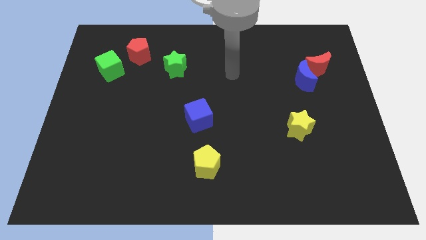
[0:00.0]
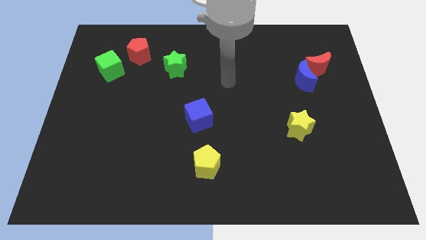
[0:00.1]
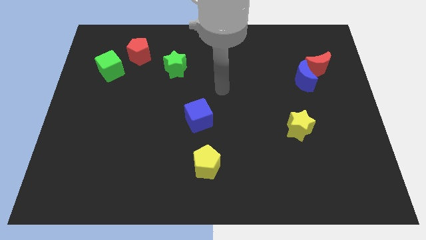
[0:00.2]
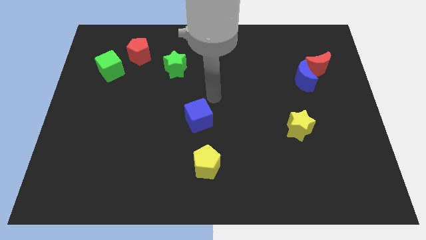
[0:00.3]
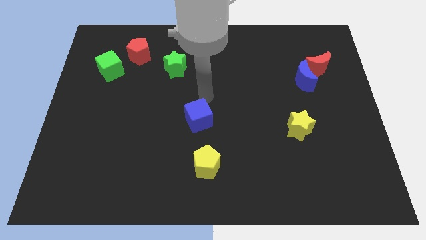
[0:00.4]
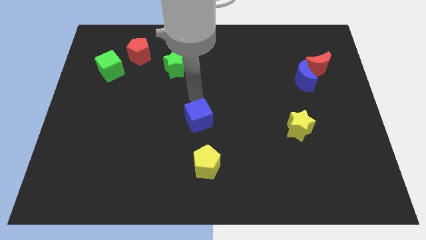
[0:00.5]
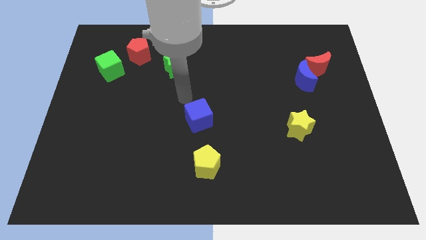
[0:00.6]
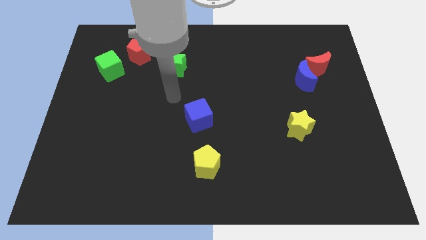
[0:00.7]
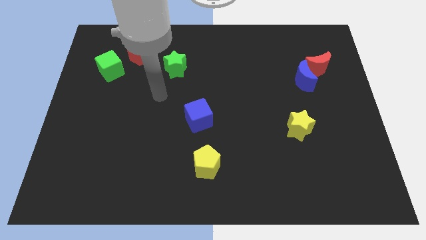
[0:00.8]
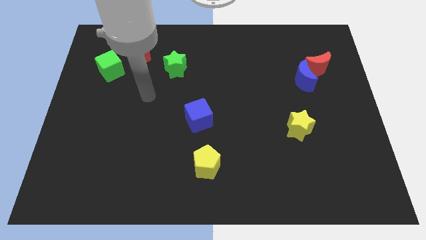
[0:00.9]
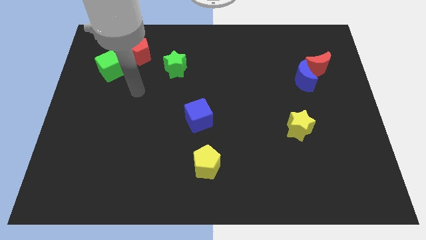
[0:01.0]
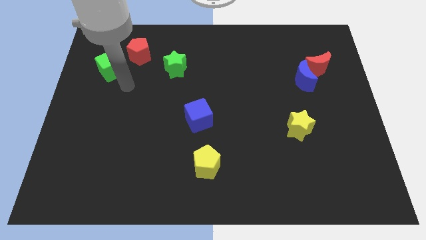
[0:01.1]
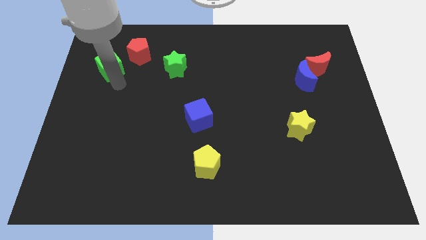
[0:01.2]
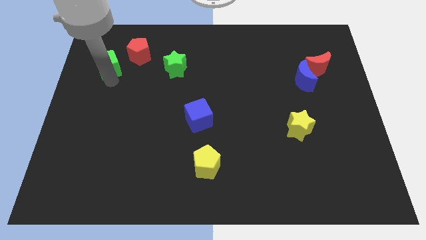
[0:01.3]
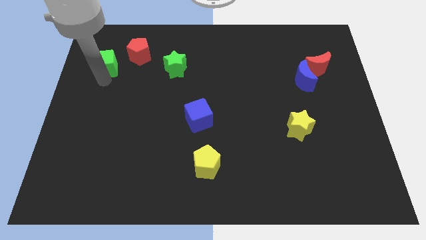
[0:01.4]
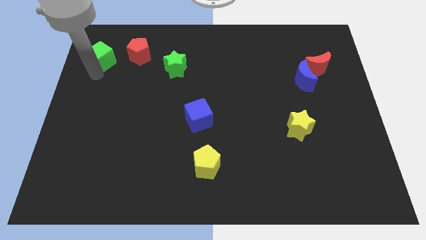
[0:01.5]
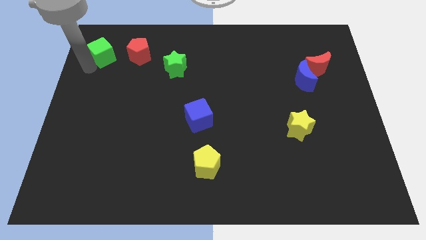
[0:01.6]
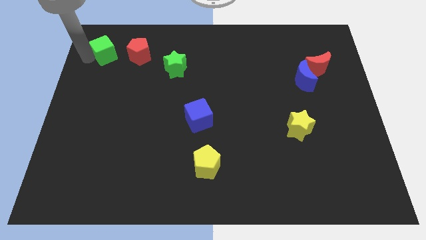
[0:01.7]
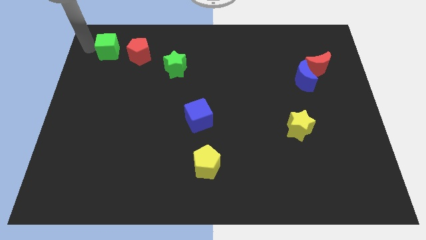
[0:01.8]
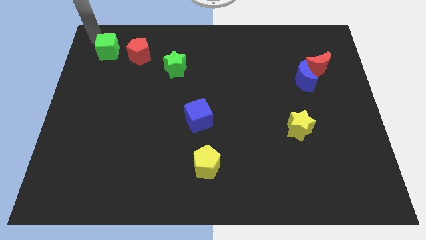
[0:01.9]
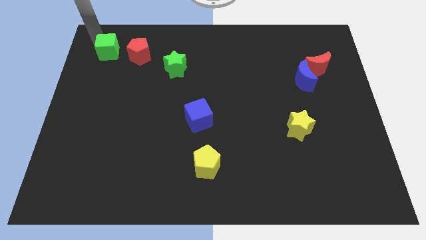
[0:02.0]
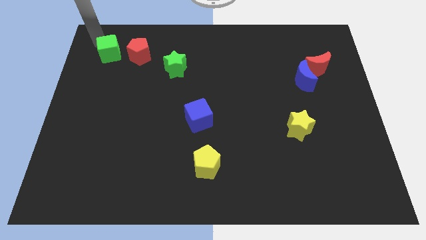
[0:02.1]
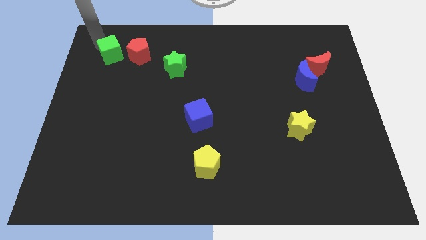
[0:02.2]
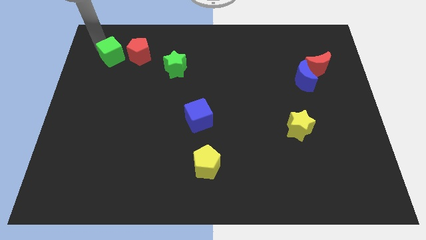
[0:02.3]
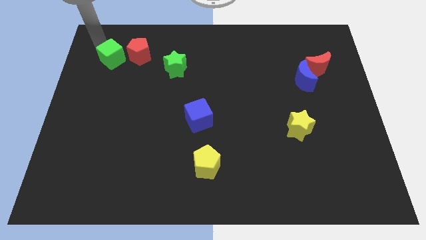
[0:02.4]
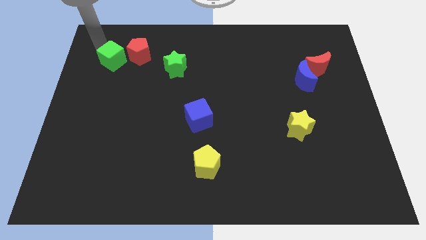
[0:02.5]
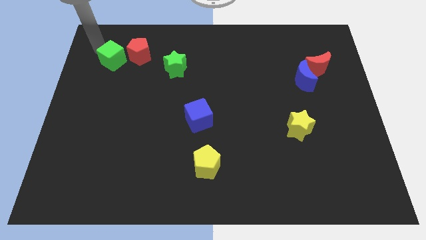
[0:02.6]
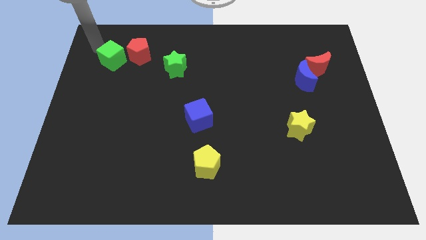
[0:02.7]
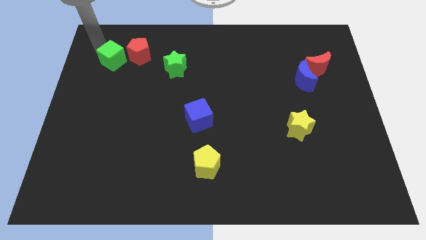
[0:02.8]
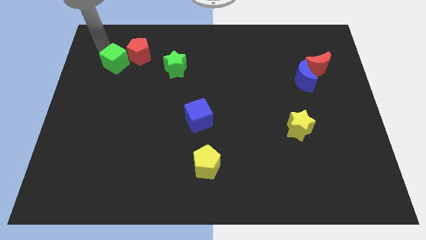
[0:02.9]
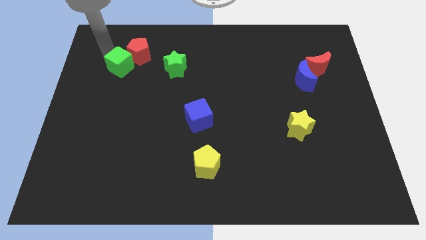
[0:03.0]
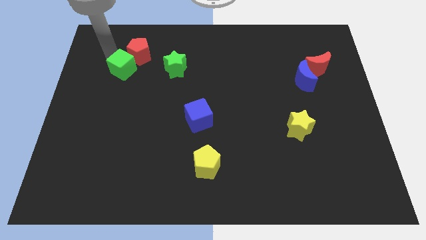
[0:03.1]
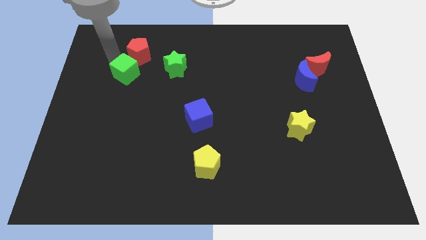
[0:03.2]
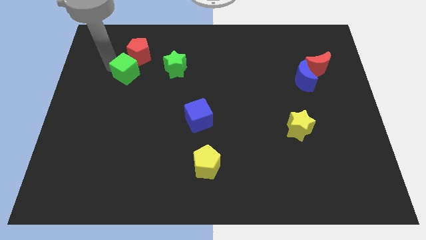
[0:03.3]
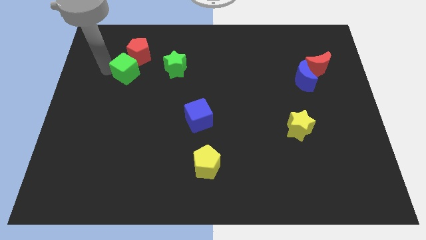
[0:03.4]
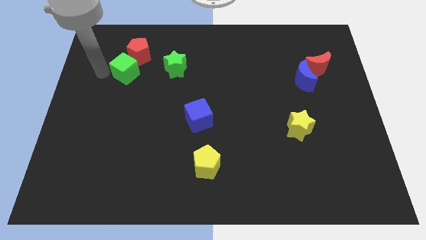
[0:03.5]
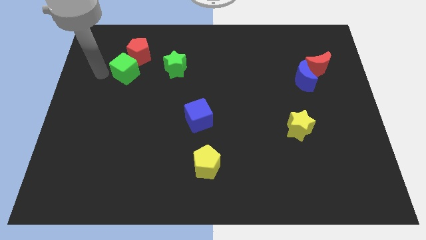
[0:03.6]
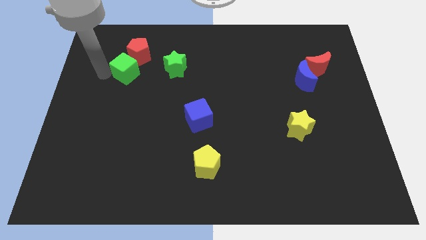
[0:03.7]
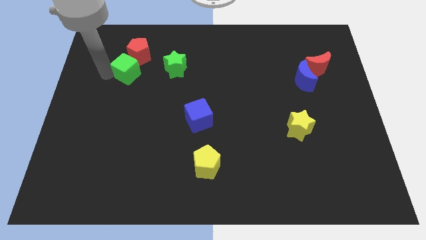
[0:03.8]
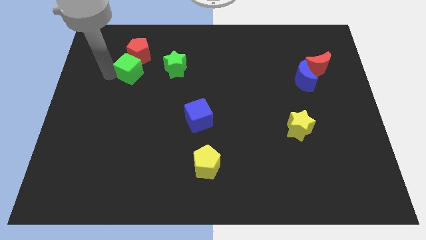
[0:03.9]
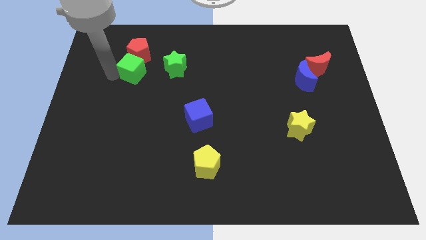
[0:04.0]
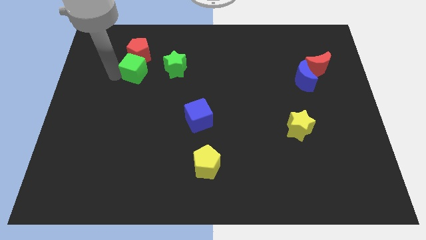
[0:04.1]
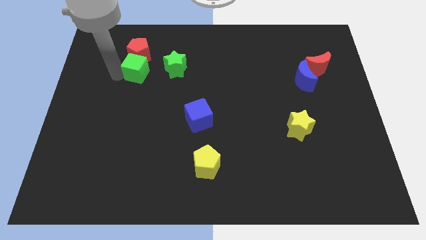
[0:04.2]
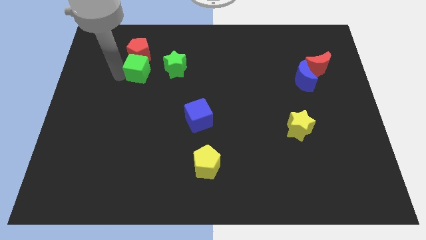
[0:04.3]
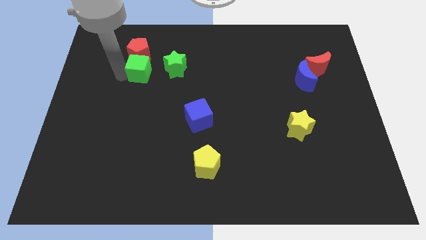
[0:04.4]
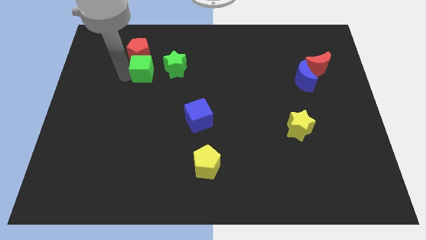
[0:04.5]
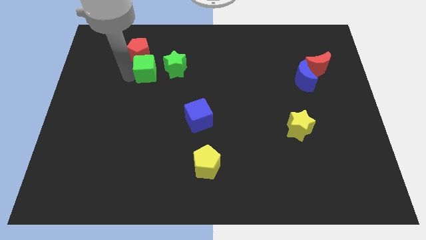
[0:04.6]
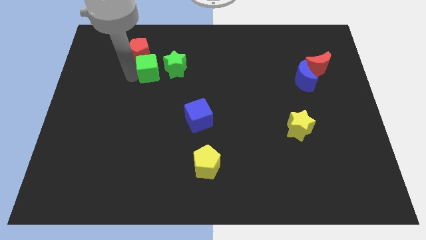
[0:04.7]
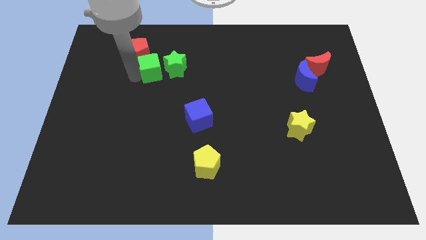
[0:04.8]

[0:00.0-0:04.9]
slide the green cube next to the green star

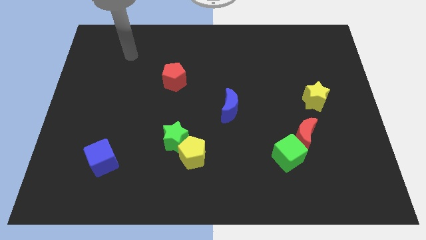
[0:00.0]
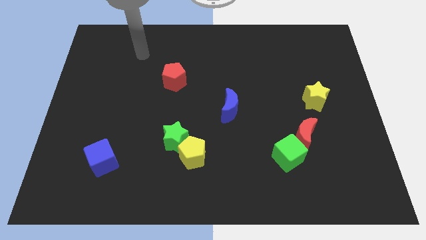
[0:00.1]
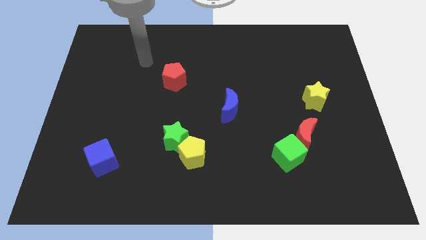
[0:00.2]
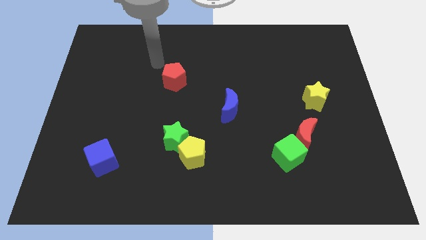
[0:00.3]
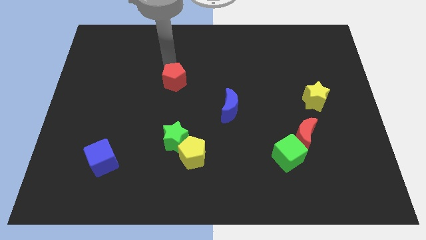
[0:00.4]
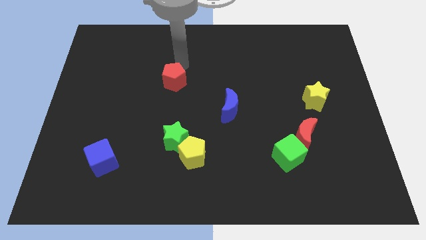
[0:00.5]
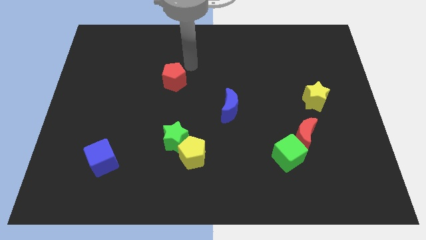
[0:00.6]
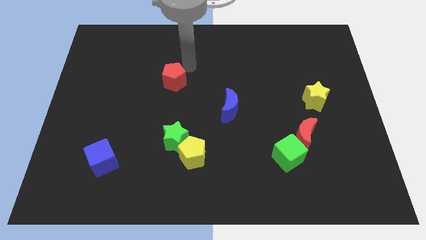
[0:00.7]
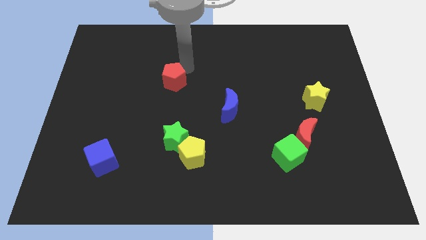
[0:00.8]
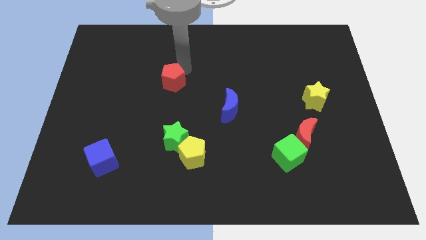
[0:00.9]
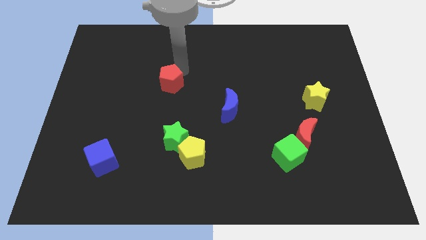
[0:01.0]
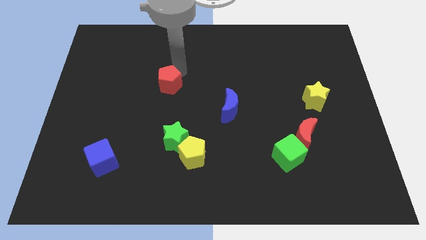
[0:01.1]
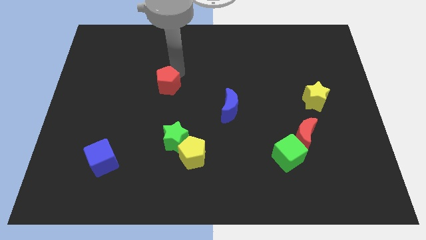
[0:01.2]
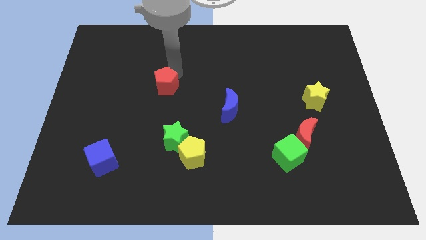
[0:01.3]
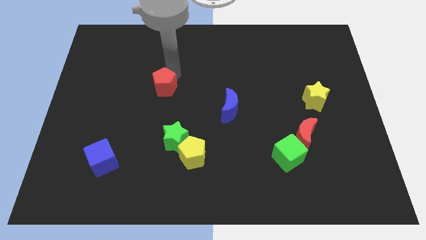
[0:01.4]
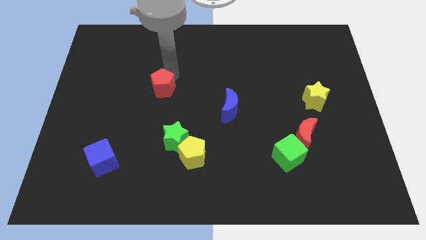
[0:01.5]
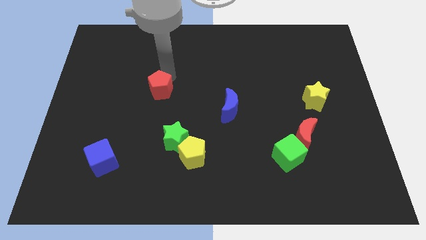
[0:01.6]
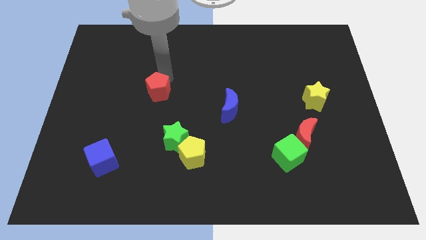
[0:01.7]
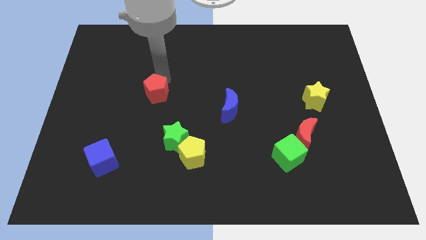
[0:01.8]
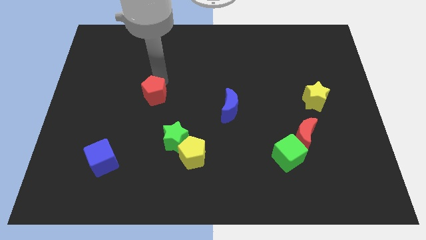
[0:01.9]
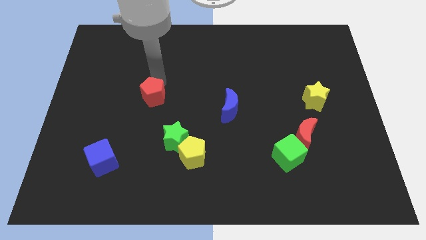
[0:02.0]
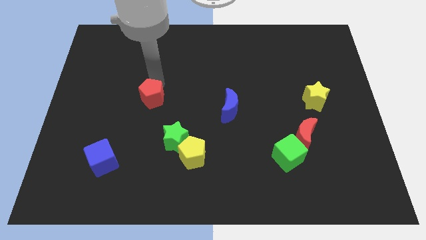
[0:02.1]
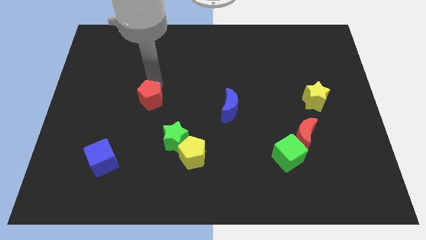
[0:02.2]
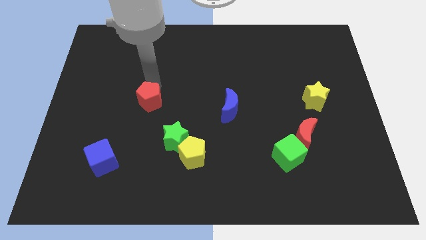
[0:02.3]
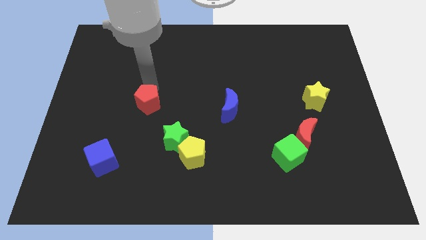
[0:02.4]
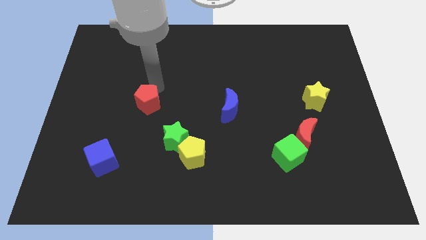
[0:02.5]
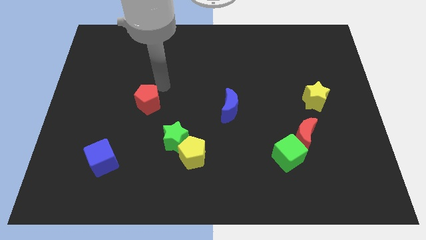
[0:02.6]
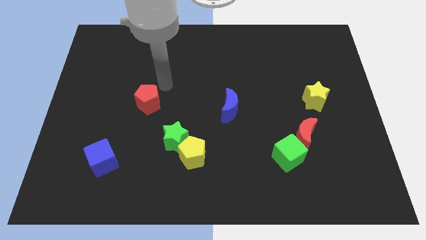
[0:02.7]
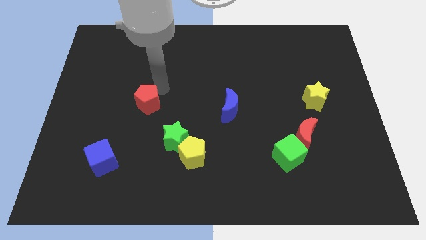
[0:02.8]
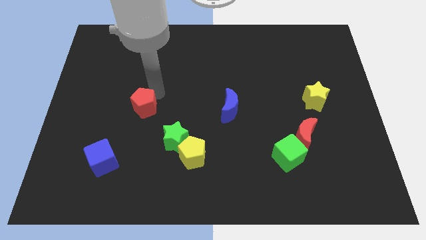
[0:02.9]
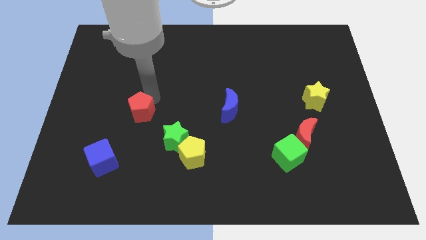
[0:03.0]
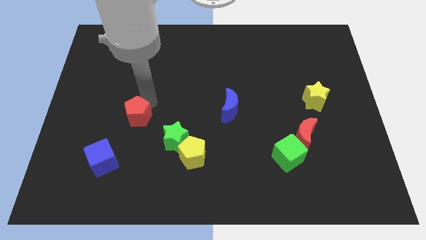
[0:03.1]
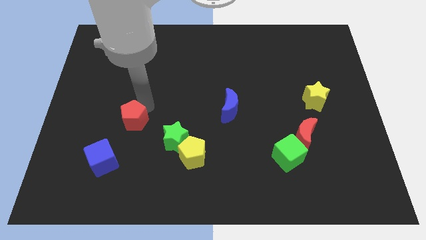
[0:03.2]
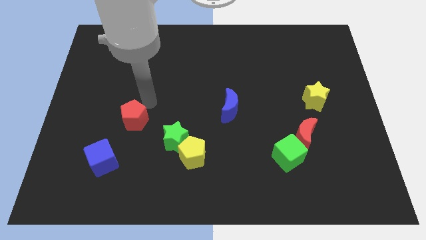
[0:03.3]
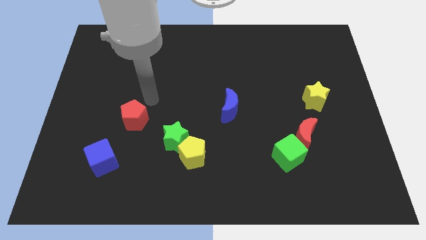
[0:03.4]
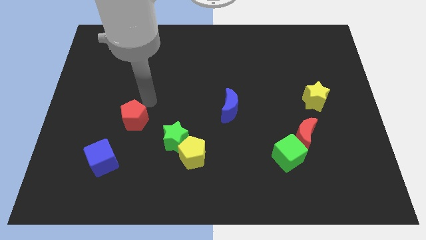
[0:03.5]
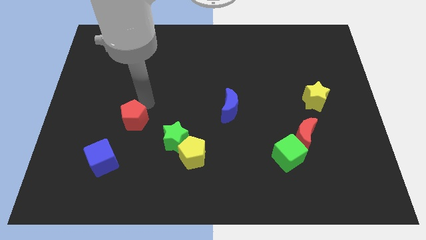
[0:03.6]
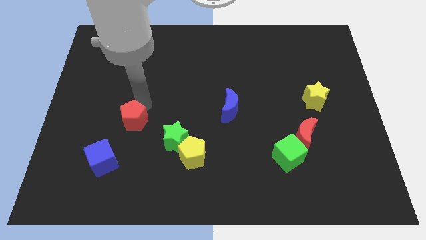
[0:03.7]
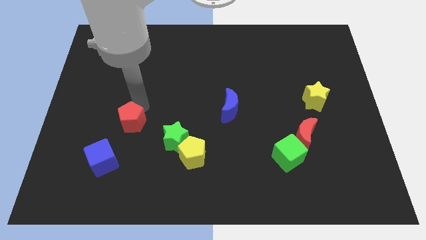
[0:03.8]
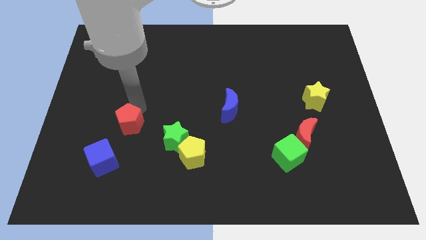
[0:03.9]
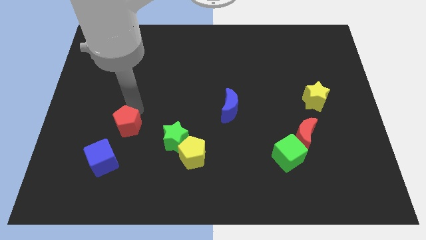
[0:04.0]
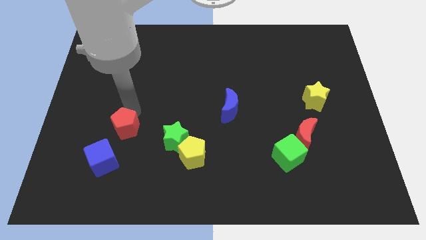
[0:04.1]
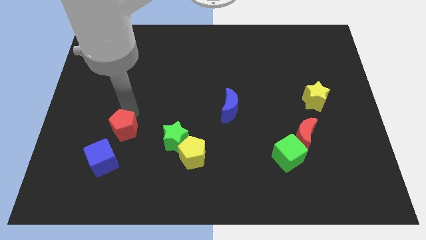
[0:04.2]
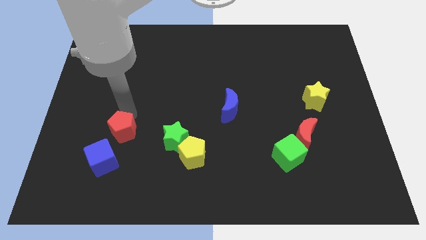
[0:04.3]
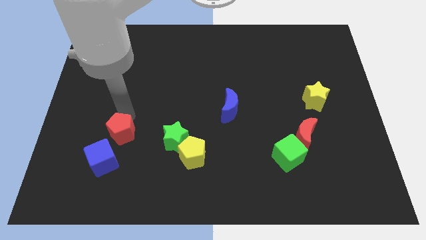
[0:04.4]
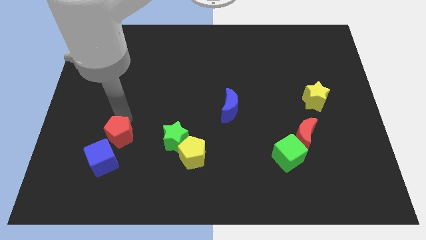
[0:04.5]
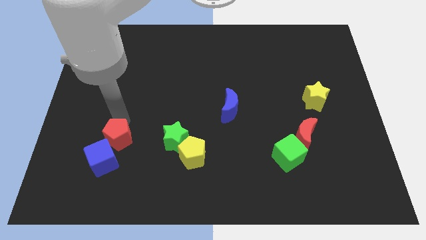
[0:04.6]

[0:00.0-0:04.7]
move the red pentagon next to the blue cube
